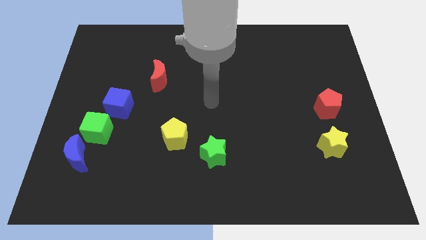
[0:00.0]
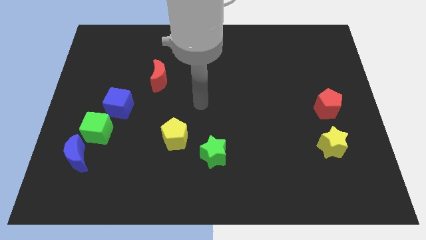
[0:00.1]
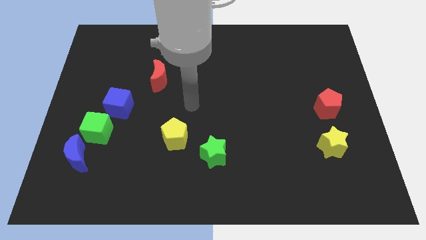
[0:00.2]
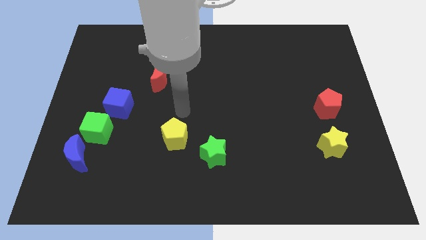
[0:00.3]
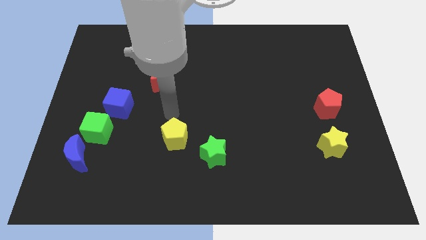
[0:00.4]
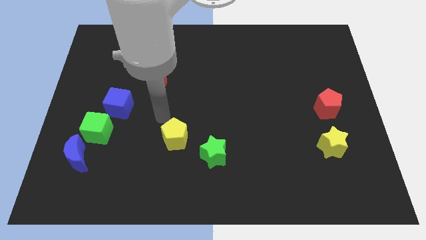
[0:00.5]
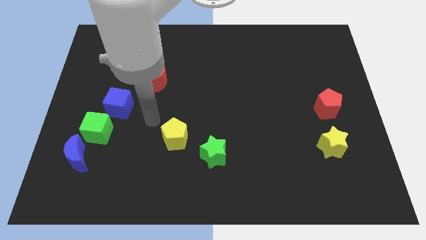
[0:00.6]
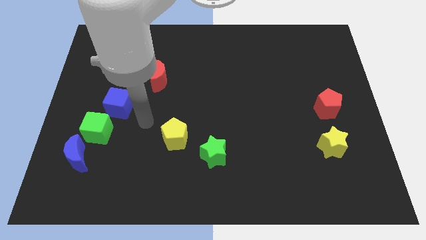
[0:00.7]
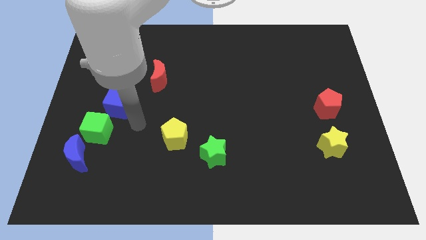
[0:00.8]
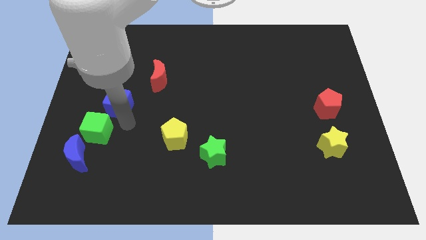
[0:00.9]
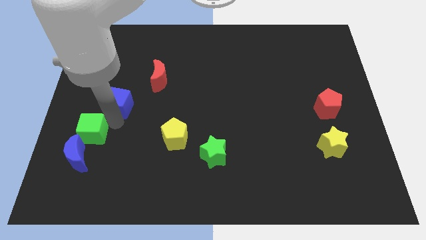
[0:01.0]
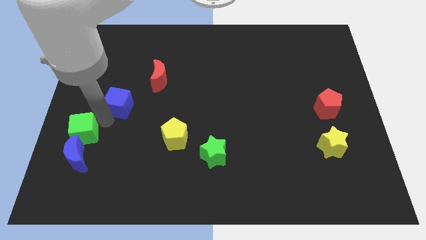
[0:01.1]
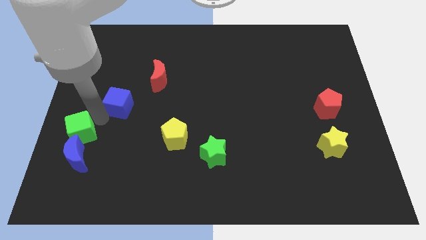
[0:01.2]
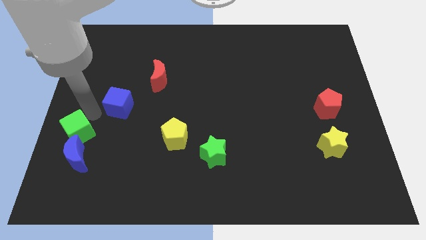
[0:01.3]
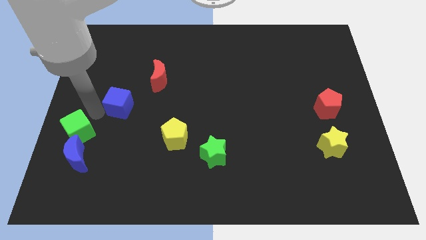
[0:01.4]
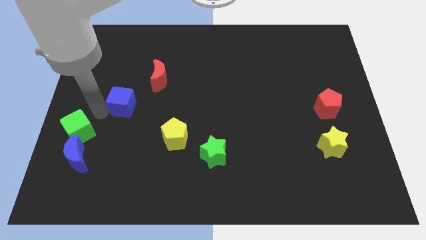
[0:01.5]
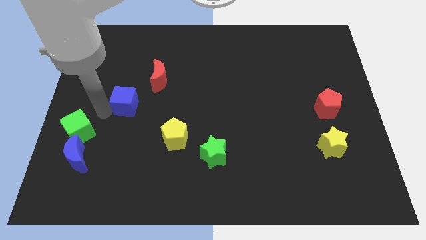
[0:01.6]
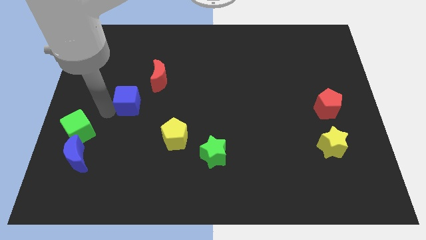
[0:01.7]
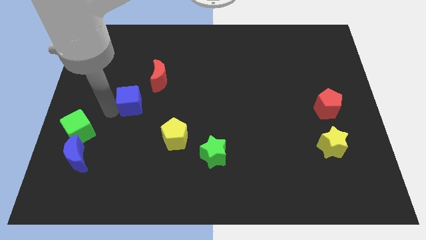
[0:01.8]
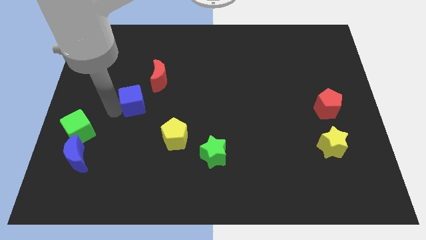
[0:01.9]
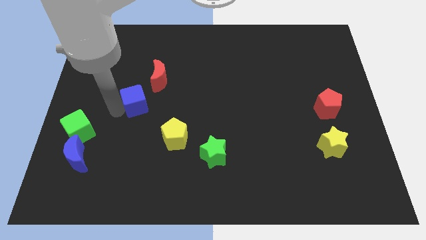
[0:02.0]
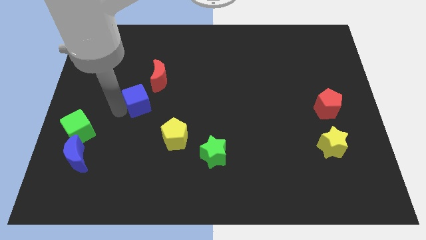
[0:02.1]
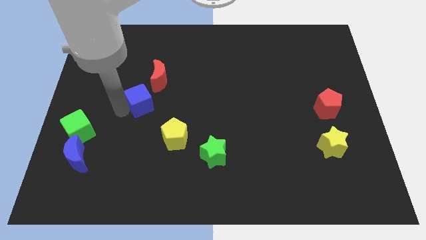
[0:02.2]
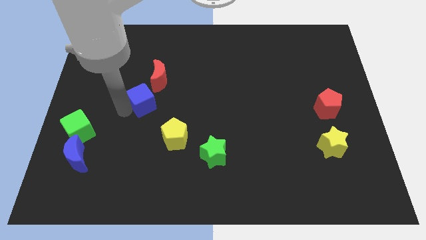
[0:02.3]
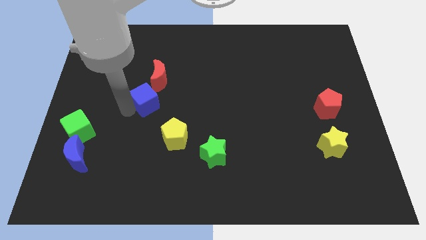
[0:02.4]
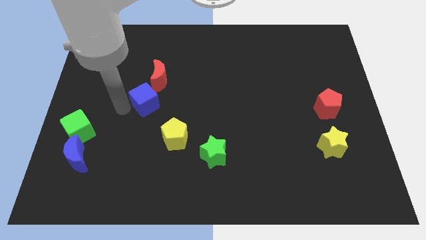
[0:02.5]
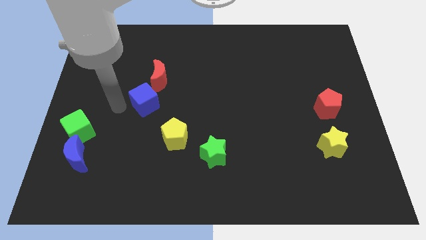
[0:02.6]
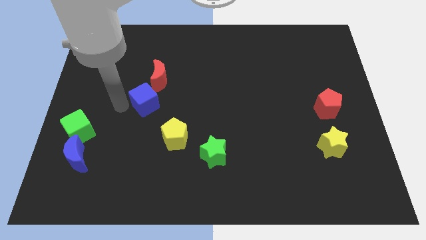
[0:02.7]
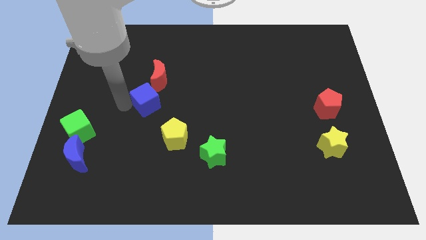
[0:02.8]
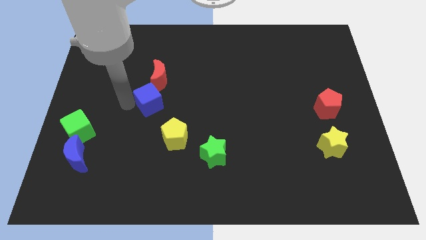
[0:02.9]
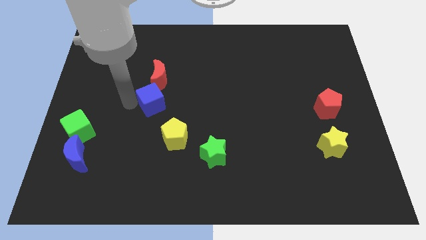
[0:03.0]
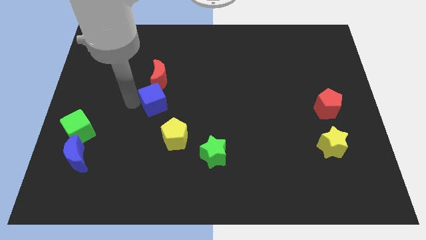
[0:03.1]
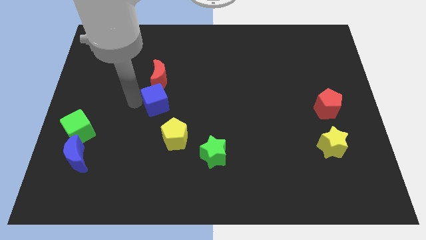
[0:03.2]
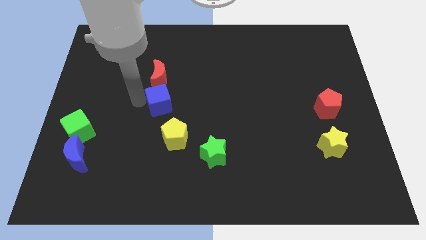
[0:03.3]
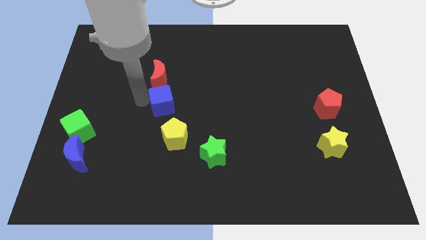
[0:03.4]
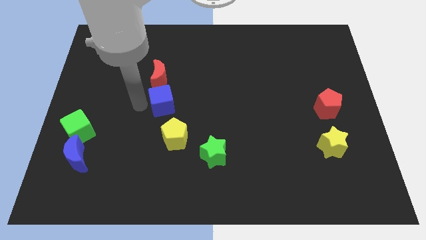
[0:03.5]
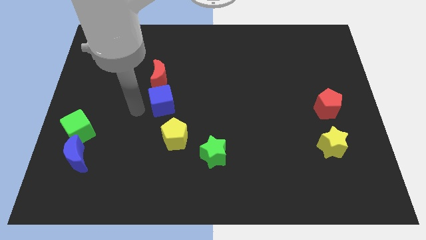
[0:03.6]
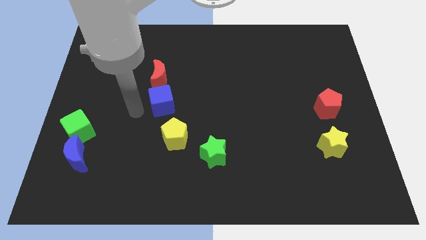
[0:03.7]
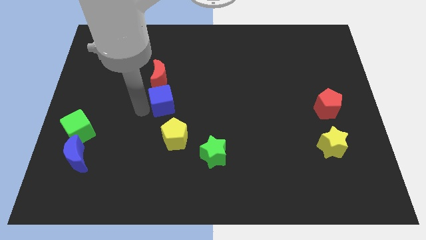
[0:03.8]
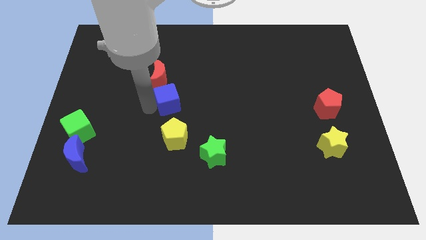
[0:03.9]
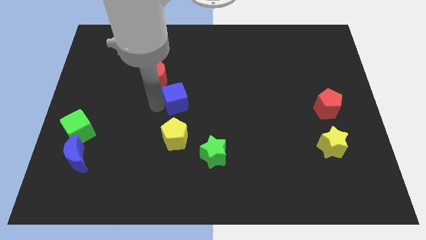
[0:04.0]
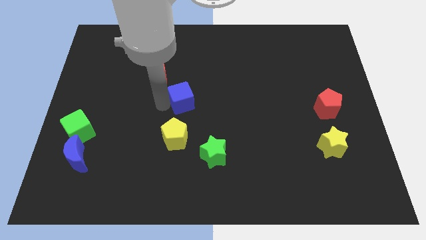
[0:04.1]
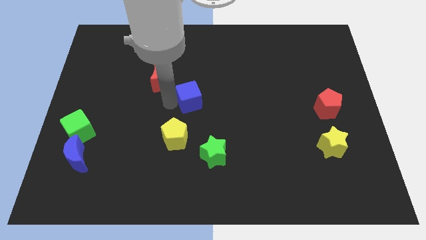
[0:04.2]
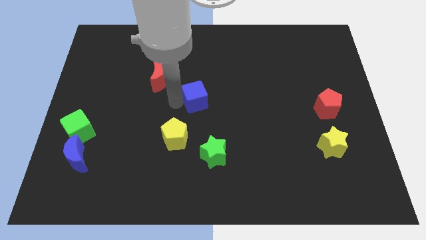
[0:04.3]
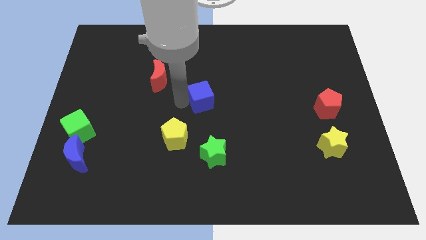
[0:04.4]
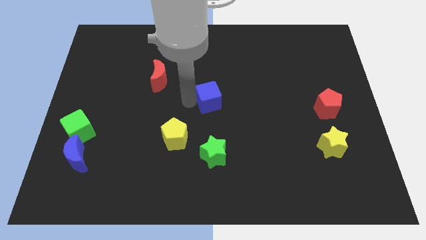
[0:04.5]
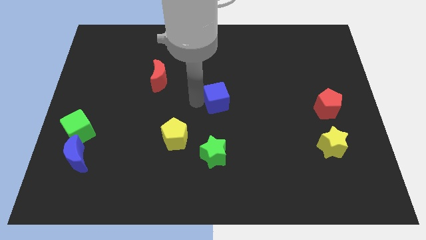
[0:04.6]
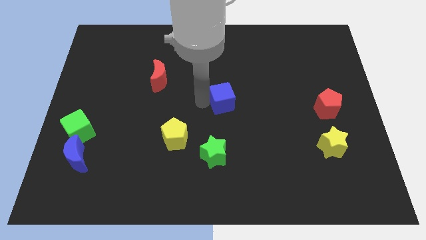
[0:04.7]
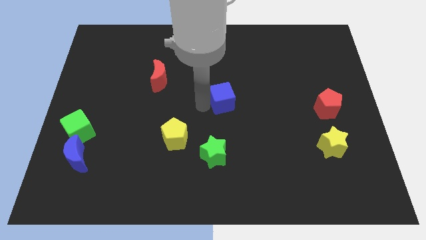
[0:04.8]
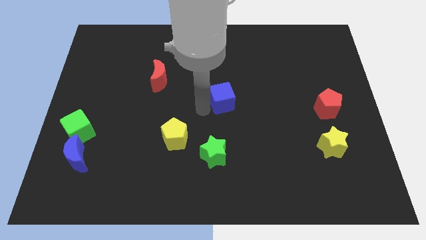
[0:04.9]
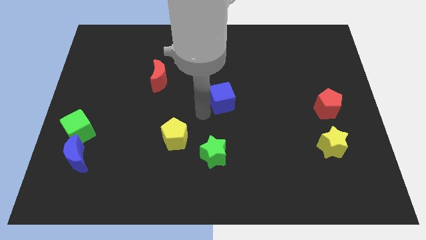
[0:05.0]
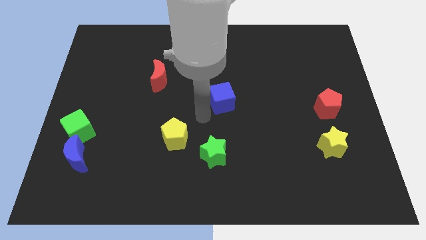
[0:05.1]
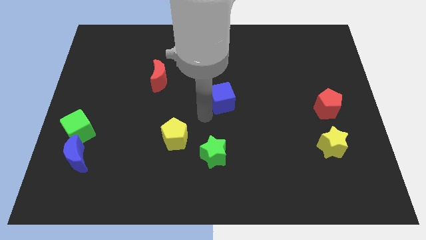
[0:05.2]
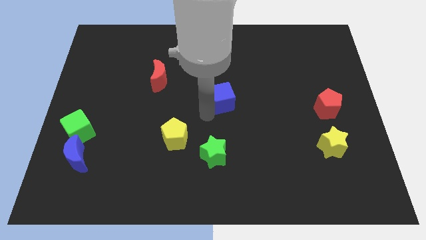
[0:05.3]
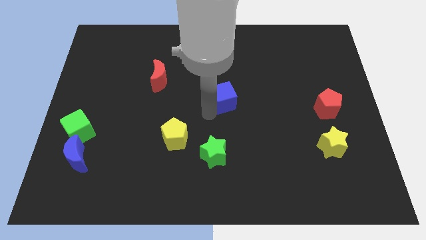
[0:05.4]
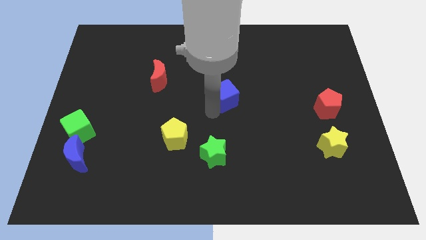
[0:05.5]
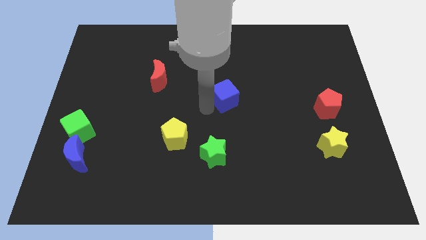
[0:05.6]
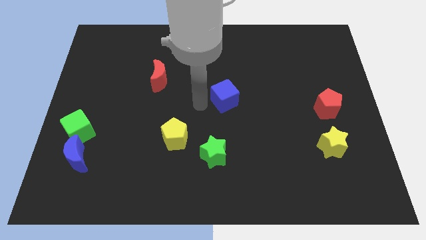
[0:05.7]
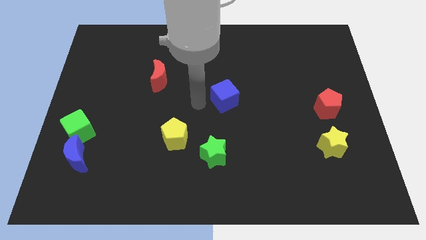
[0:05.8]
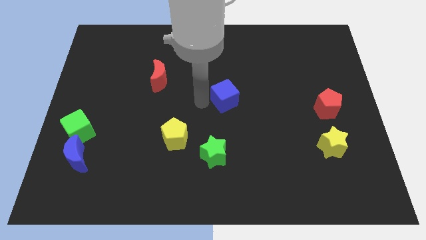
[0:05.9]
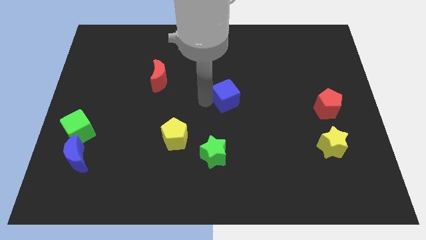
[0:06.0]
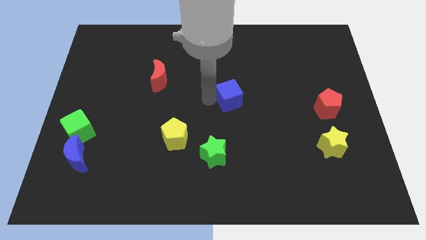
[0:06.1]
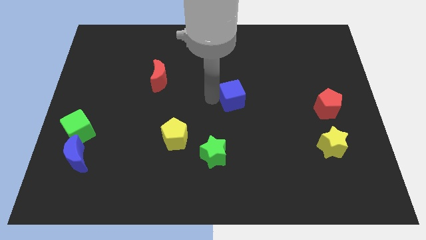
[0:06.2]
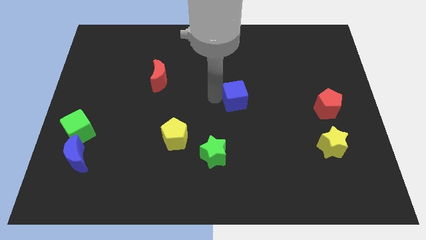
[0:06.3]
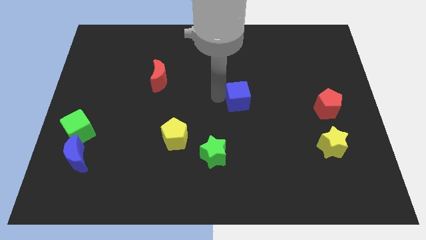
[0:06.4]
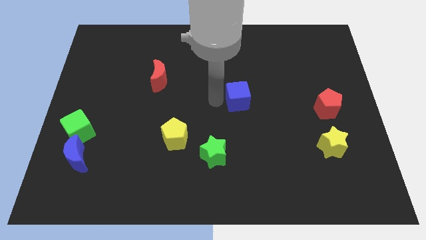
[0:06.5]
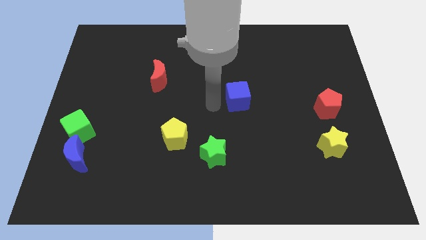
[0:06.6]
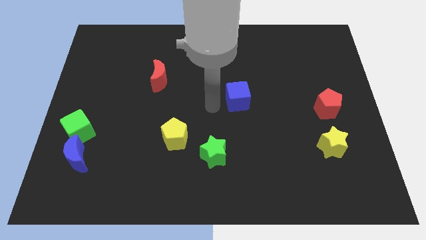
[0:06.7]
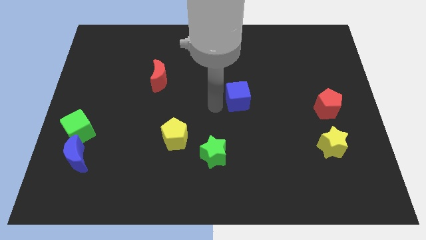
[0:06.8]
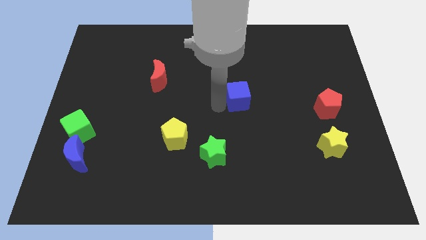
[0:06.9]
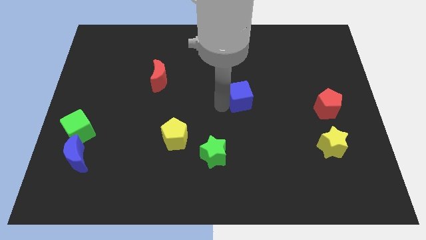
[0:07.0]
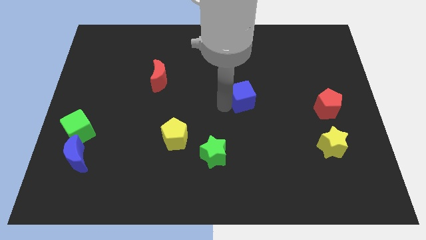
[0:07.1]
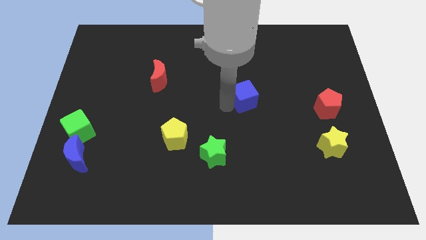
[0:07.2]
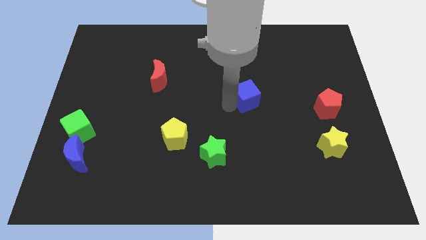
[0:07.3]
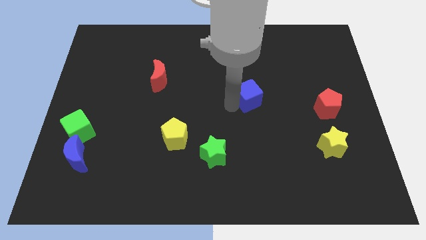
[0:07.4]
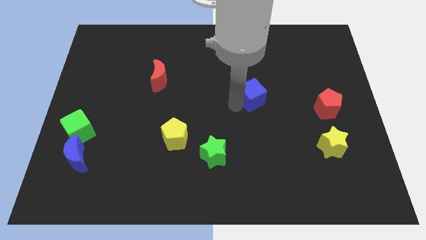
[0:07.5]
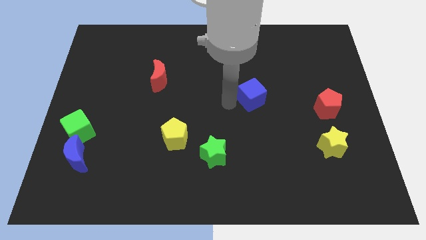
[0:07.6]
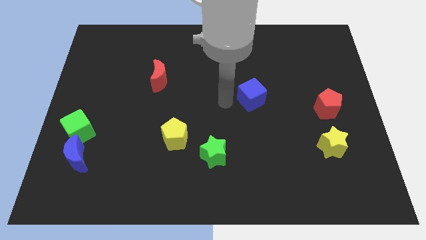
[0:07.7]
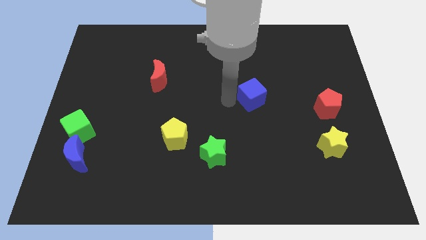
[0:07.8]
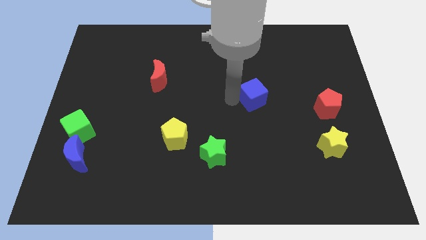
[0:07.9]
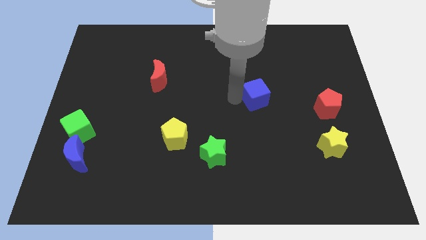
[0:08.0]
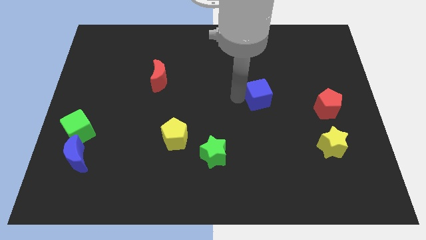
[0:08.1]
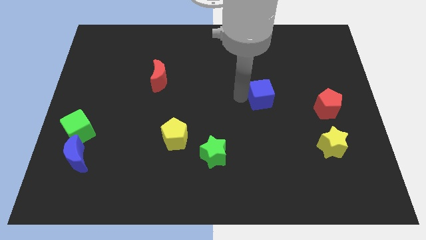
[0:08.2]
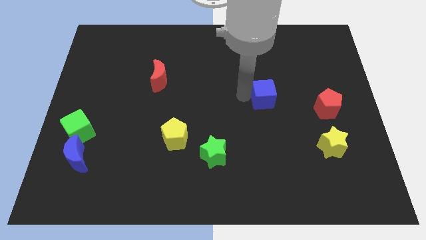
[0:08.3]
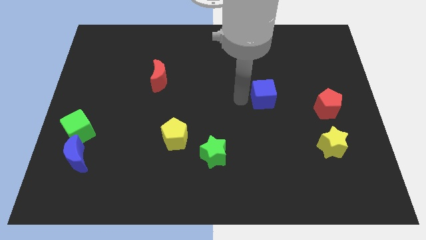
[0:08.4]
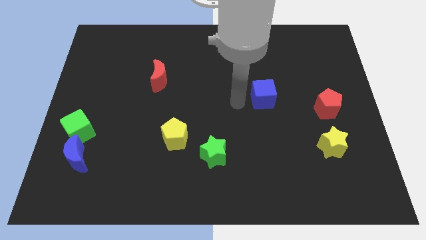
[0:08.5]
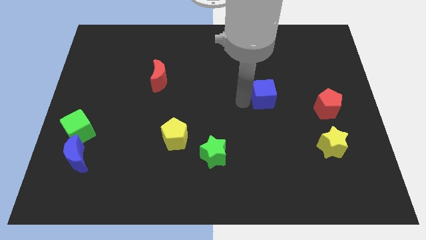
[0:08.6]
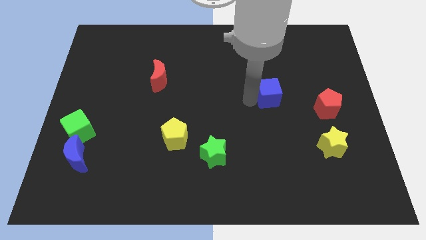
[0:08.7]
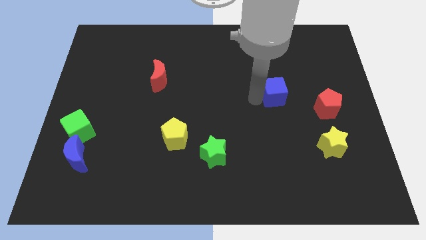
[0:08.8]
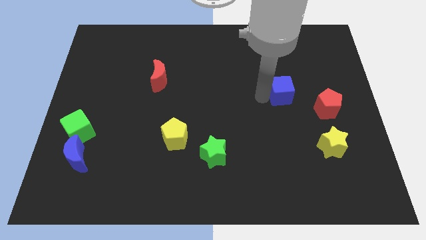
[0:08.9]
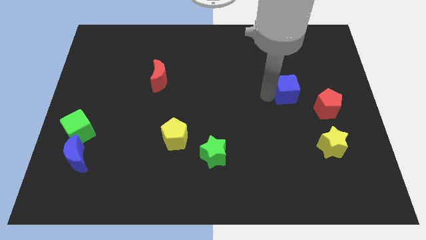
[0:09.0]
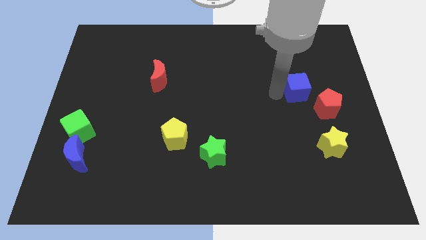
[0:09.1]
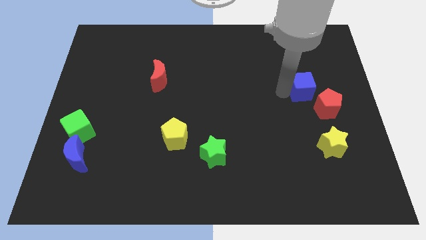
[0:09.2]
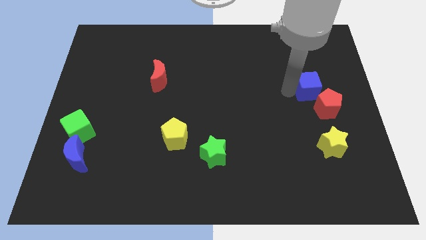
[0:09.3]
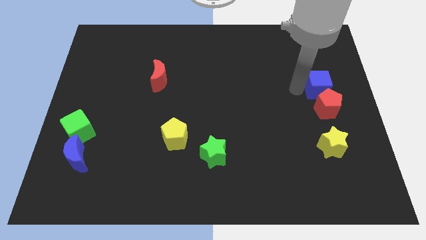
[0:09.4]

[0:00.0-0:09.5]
move the blue cube to the center right
